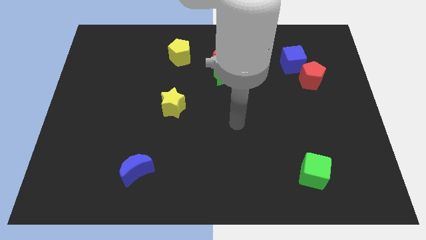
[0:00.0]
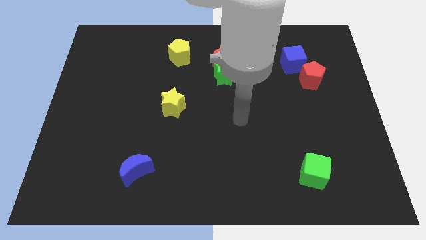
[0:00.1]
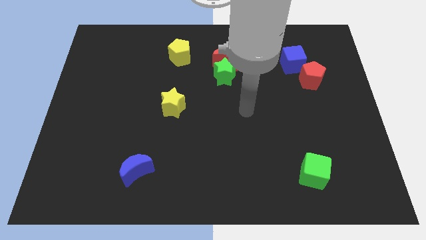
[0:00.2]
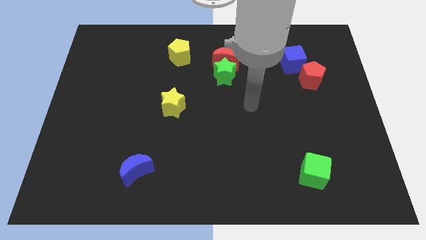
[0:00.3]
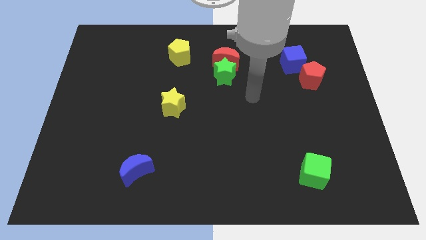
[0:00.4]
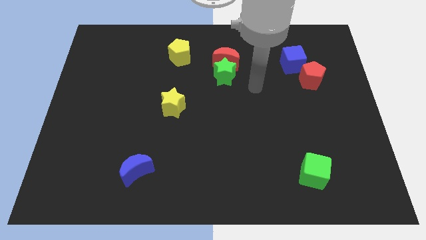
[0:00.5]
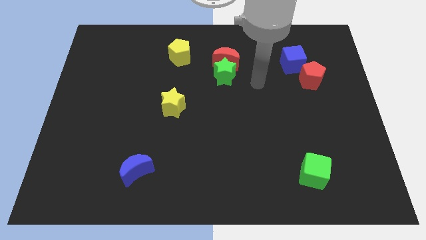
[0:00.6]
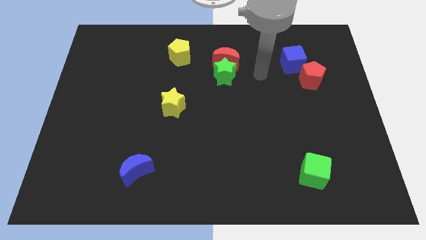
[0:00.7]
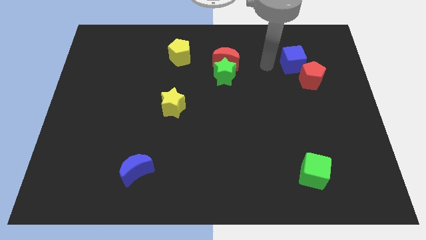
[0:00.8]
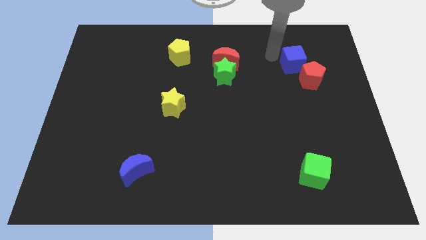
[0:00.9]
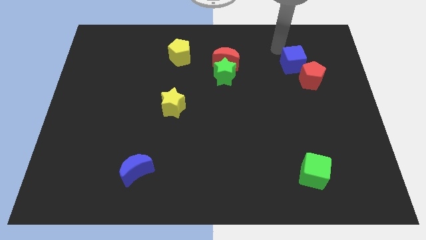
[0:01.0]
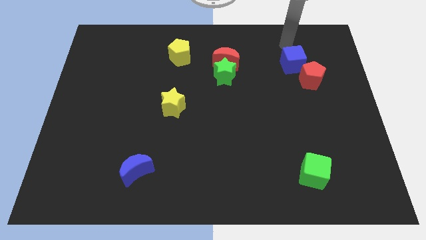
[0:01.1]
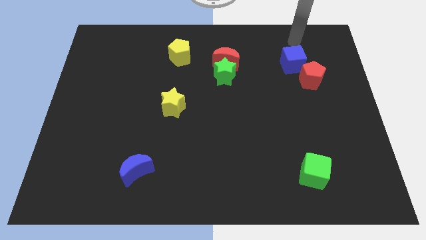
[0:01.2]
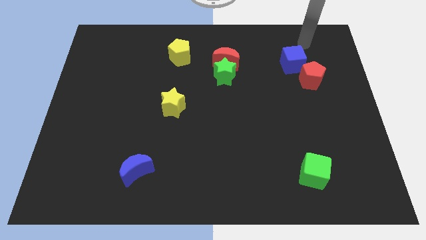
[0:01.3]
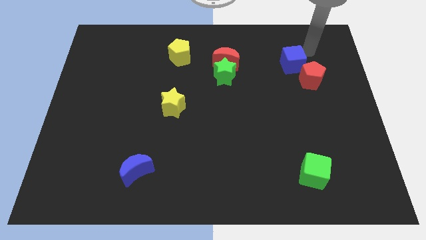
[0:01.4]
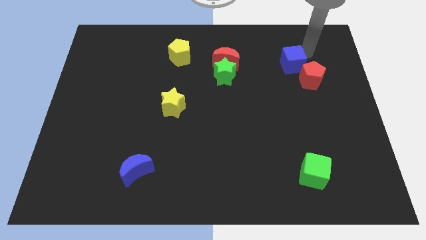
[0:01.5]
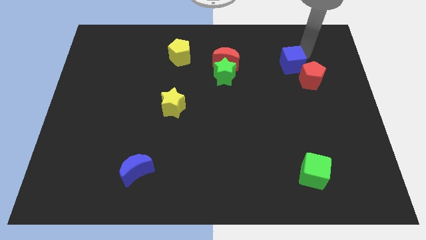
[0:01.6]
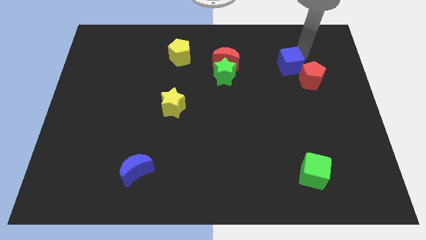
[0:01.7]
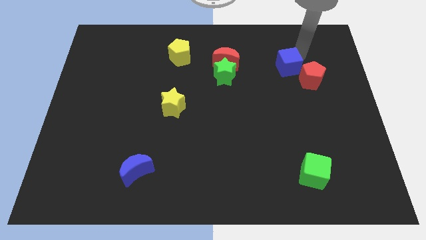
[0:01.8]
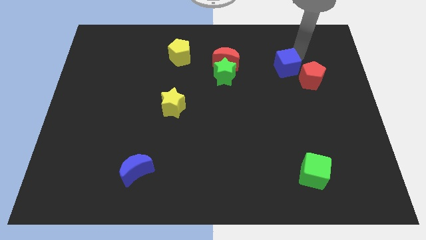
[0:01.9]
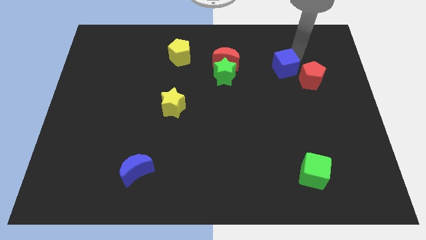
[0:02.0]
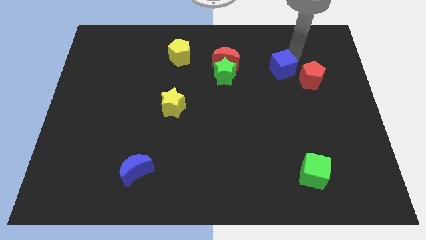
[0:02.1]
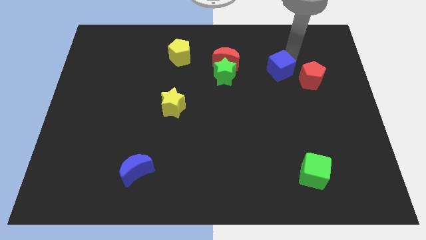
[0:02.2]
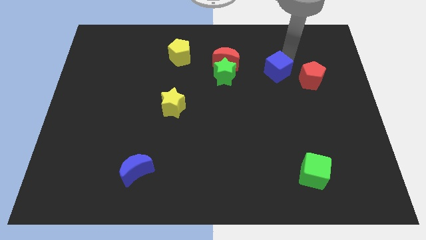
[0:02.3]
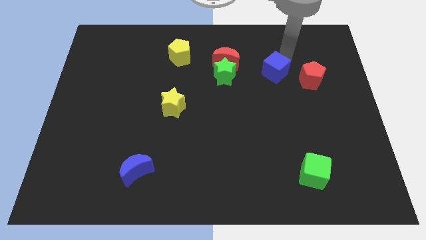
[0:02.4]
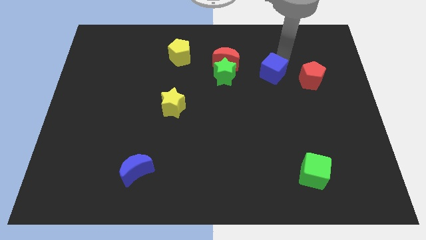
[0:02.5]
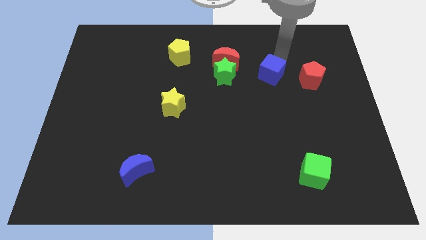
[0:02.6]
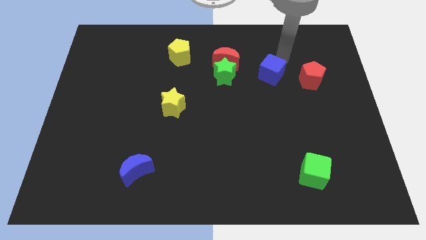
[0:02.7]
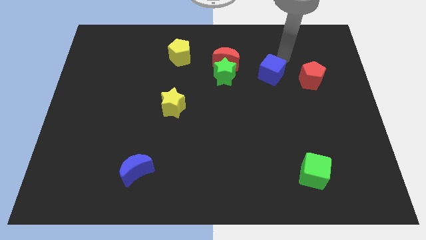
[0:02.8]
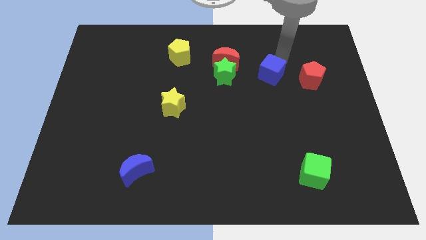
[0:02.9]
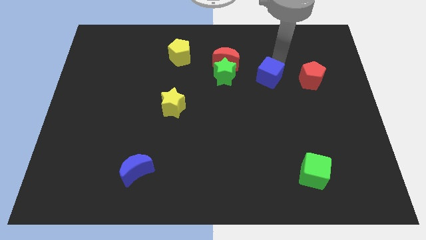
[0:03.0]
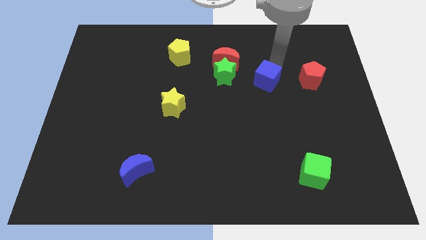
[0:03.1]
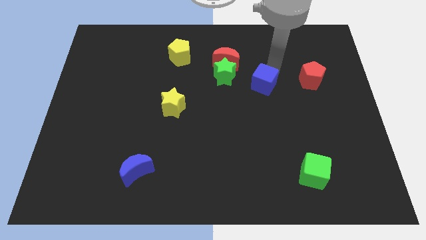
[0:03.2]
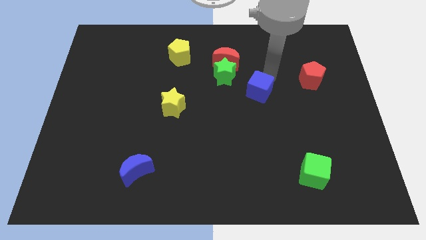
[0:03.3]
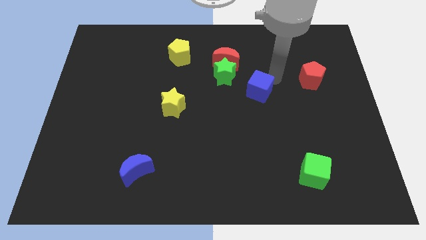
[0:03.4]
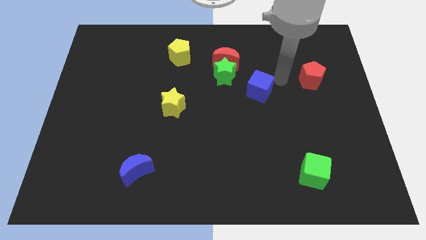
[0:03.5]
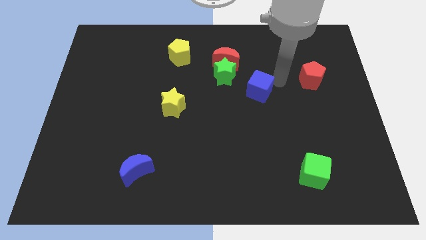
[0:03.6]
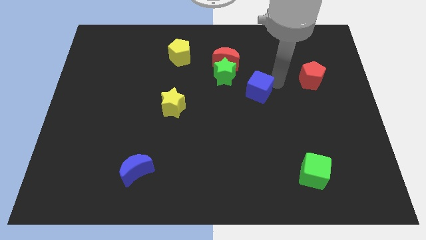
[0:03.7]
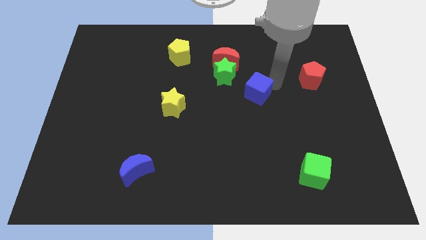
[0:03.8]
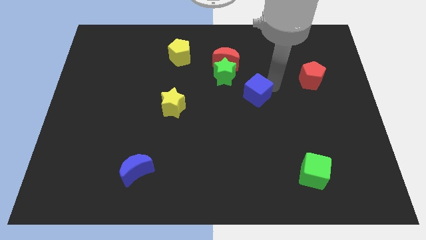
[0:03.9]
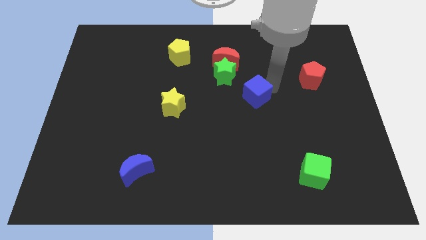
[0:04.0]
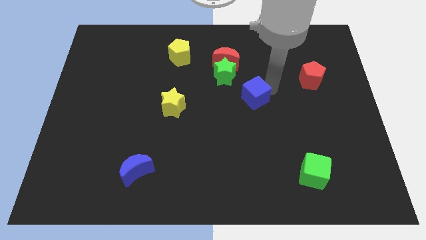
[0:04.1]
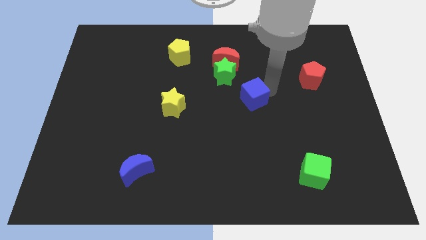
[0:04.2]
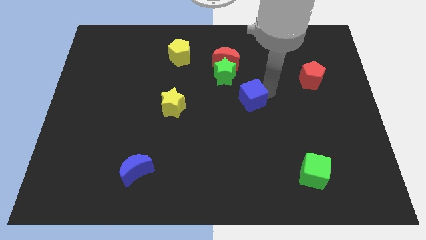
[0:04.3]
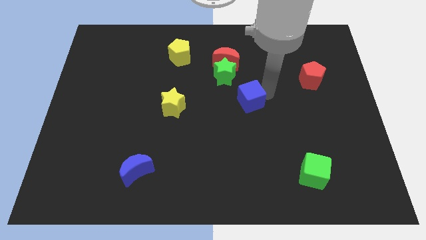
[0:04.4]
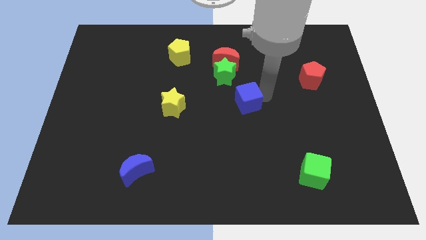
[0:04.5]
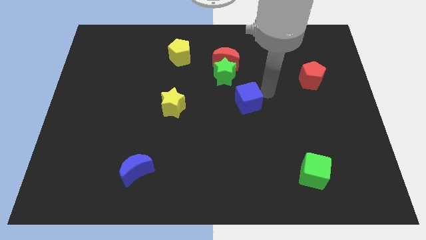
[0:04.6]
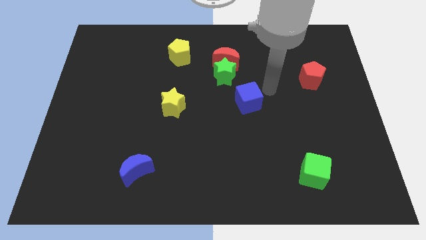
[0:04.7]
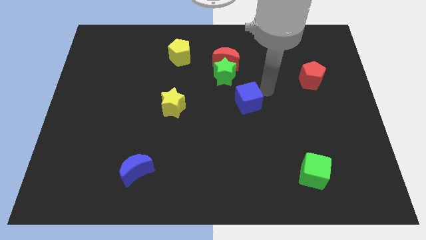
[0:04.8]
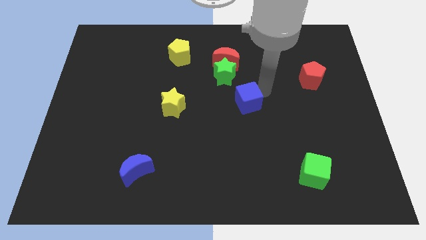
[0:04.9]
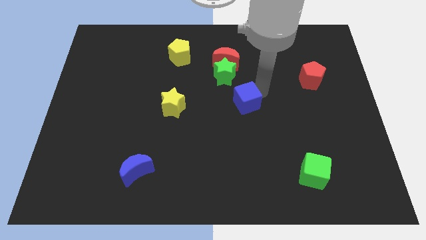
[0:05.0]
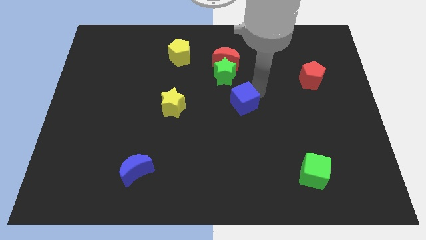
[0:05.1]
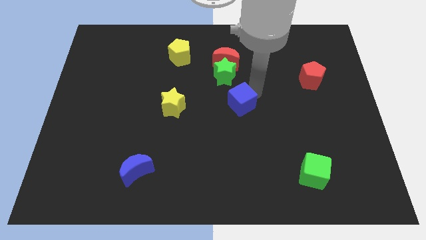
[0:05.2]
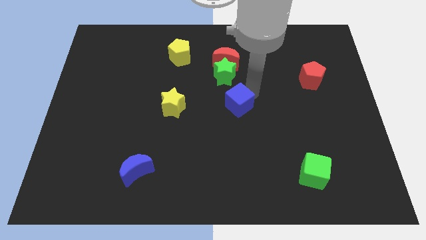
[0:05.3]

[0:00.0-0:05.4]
slide the blue cube down and left diagonally

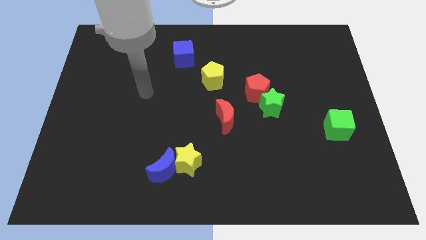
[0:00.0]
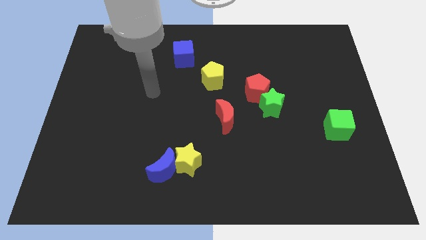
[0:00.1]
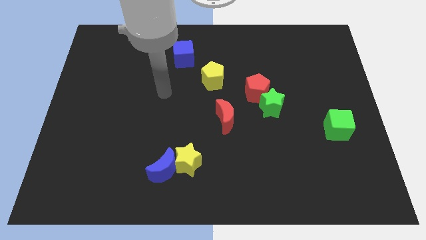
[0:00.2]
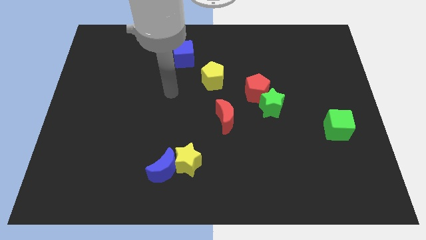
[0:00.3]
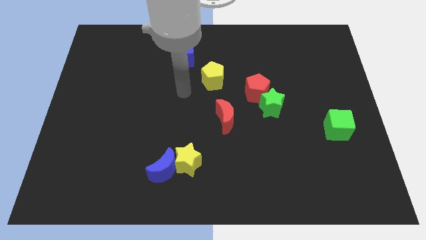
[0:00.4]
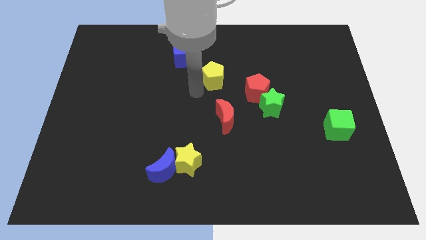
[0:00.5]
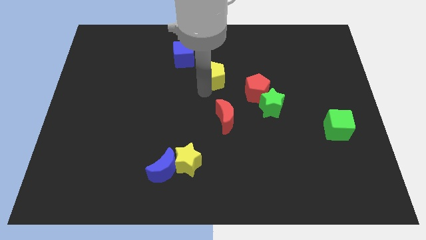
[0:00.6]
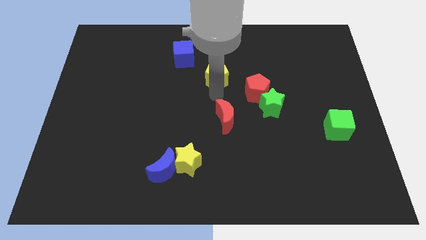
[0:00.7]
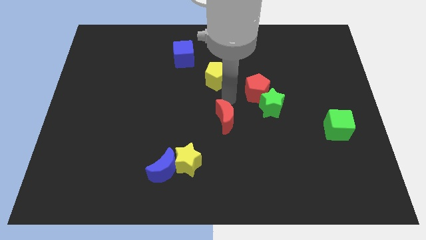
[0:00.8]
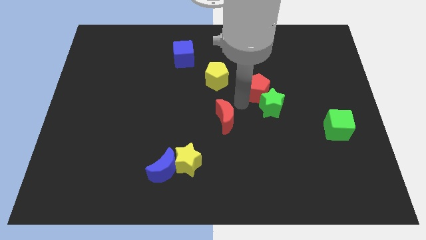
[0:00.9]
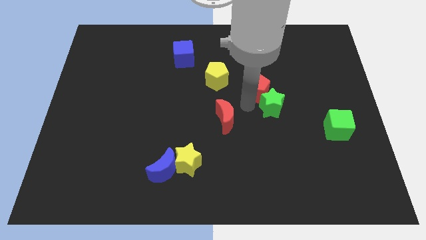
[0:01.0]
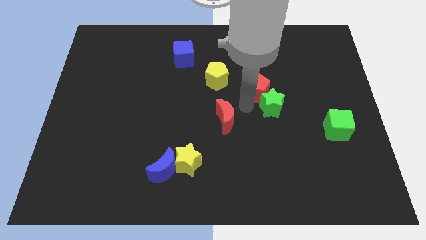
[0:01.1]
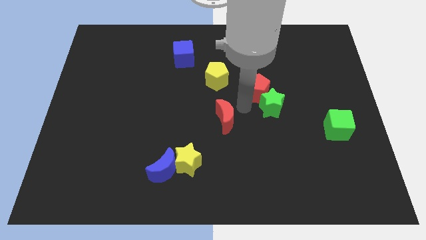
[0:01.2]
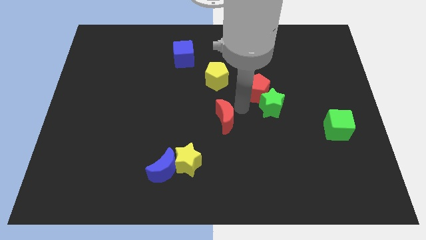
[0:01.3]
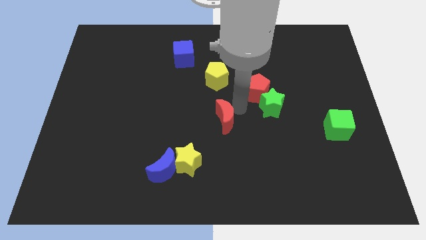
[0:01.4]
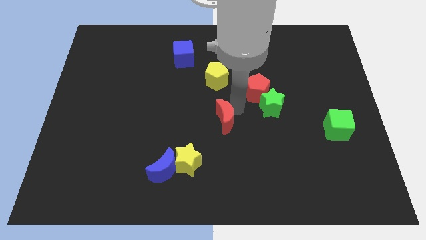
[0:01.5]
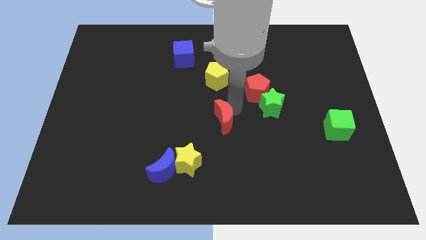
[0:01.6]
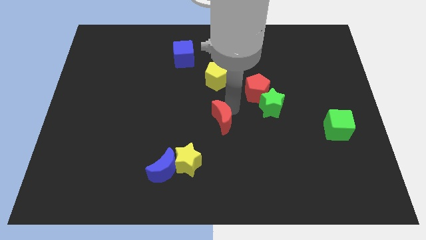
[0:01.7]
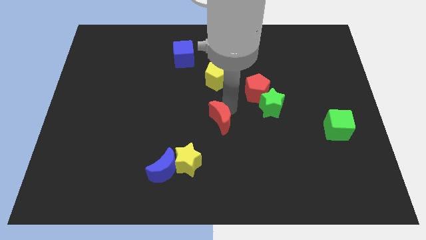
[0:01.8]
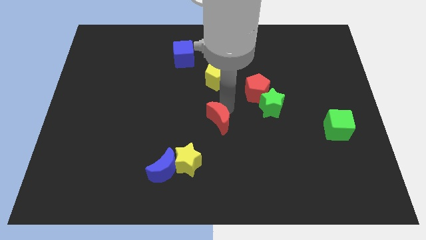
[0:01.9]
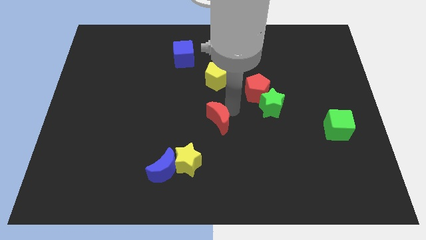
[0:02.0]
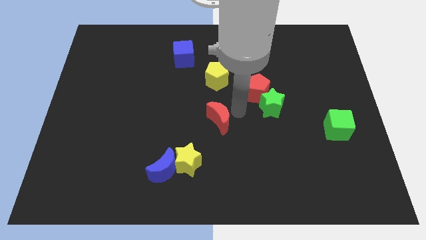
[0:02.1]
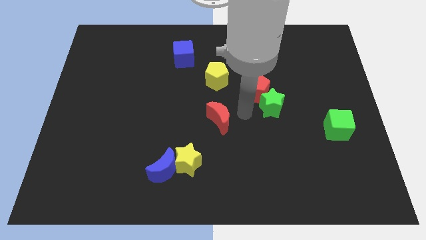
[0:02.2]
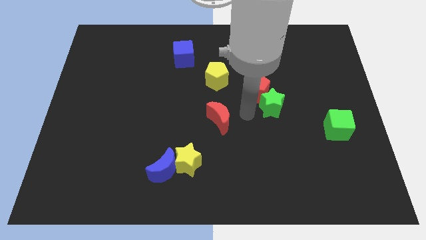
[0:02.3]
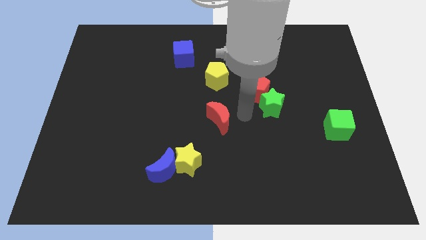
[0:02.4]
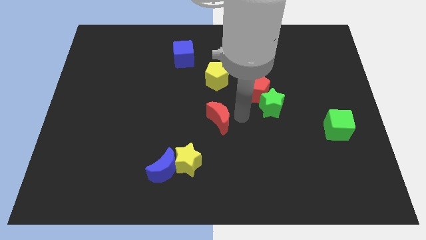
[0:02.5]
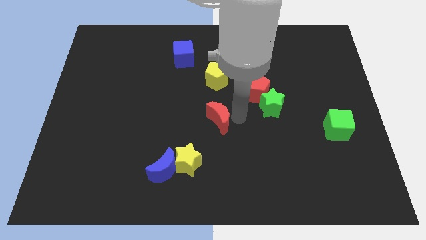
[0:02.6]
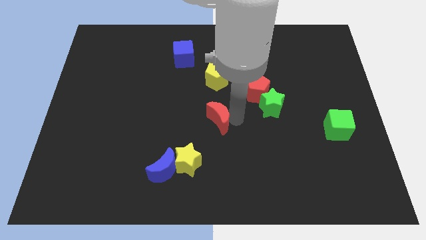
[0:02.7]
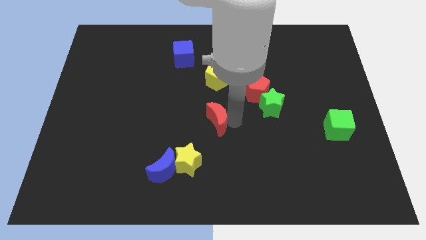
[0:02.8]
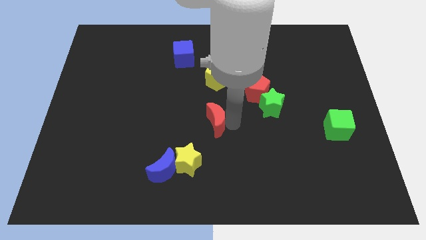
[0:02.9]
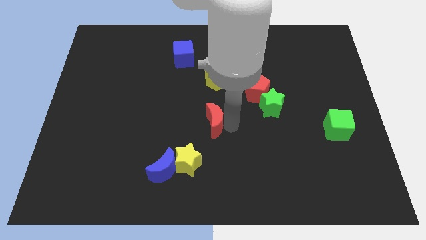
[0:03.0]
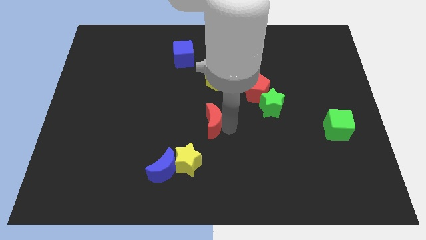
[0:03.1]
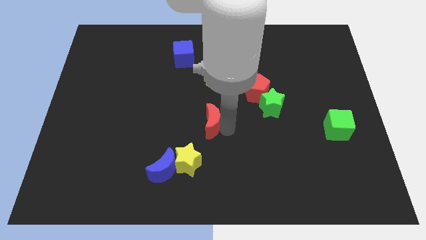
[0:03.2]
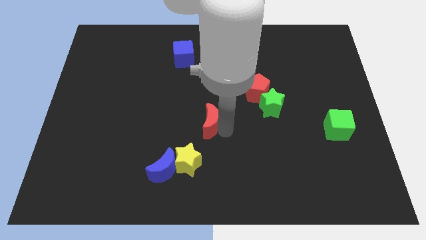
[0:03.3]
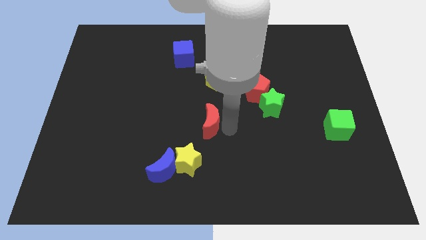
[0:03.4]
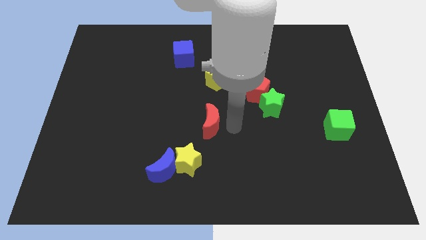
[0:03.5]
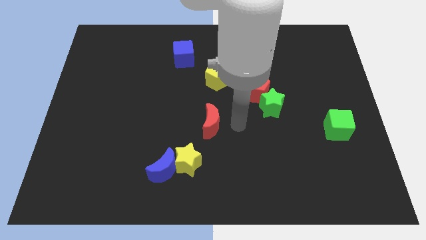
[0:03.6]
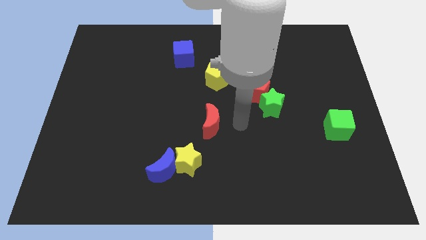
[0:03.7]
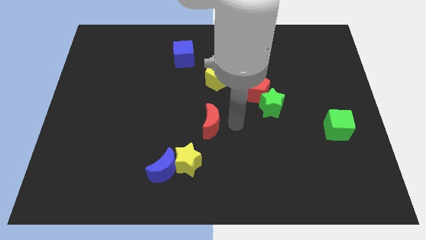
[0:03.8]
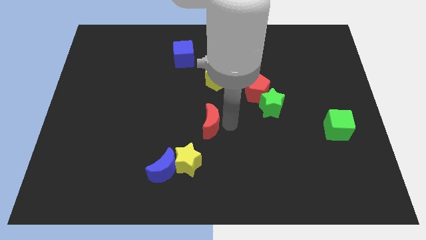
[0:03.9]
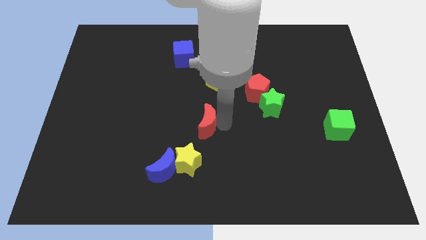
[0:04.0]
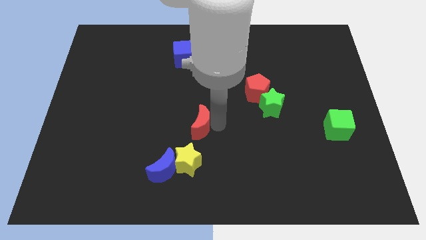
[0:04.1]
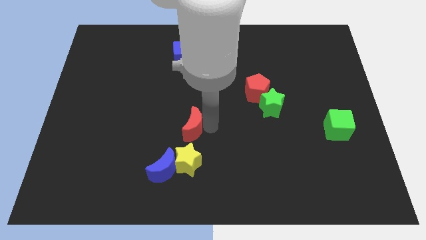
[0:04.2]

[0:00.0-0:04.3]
slide the red moon a little left
